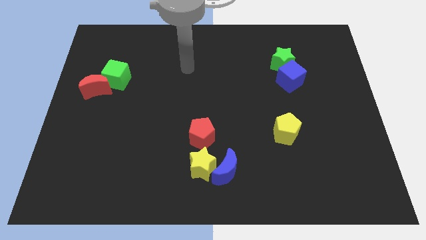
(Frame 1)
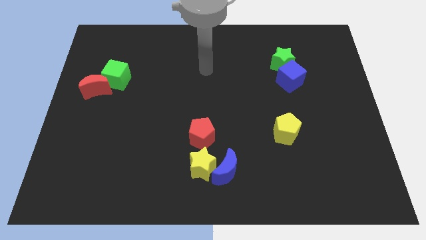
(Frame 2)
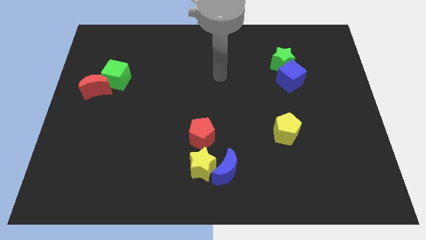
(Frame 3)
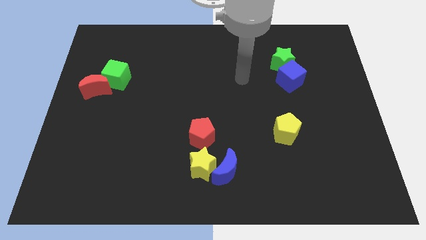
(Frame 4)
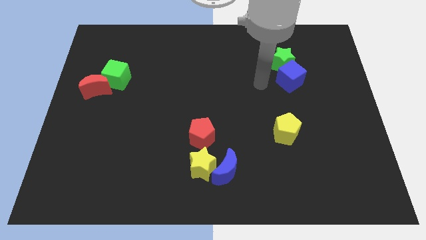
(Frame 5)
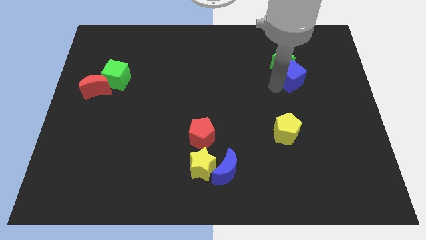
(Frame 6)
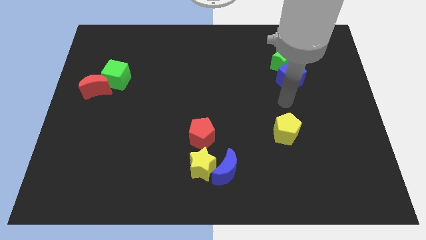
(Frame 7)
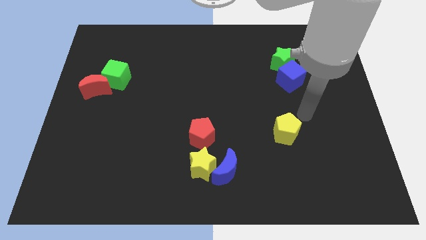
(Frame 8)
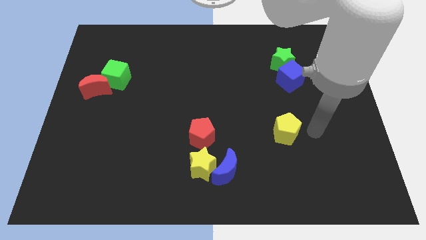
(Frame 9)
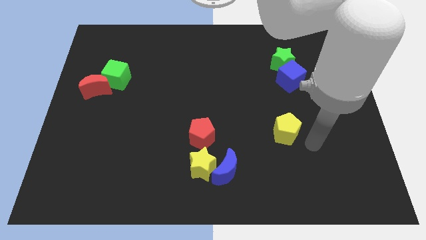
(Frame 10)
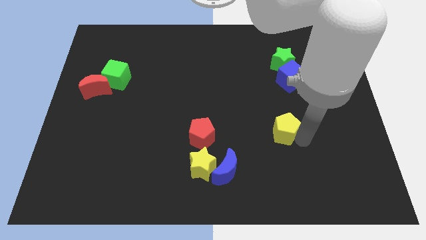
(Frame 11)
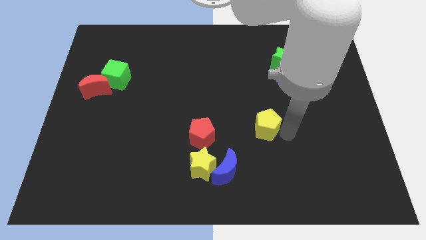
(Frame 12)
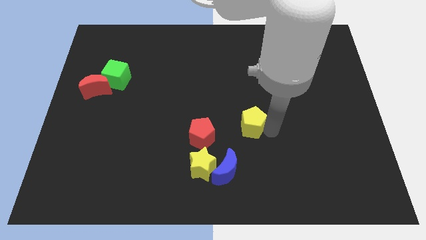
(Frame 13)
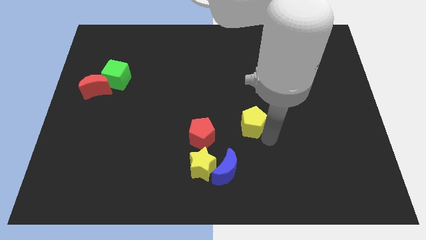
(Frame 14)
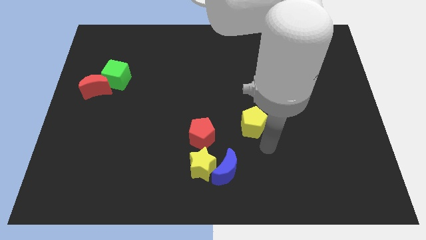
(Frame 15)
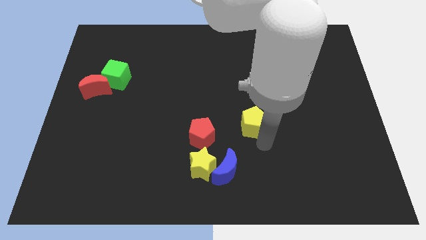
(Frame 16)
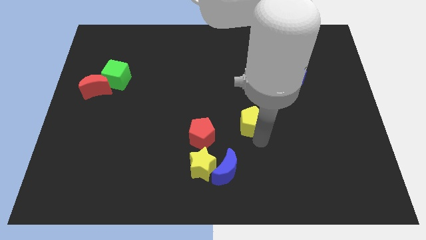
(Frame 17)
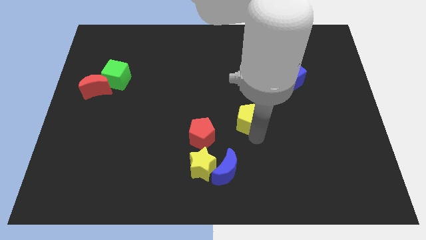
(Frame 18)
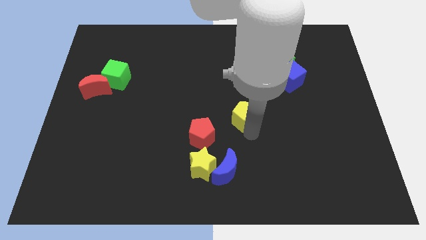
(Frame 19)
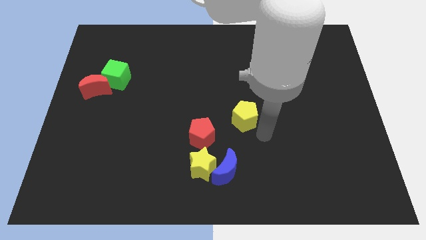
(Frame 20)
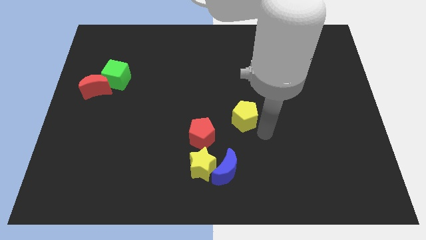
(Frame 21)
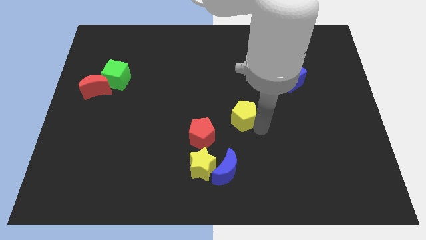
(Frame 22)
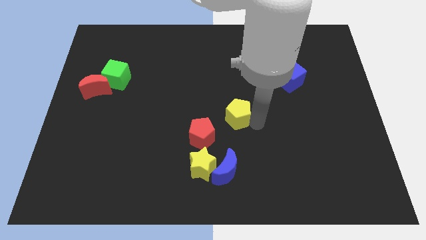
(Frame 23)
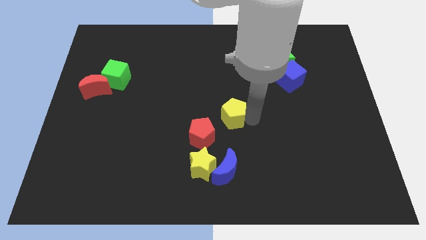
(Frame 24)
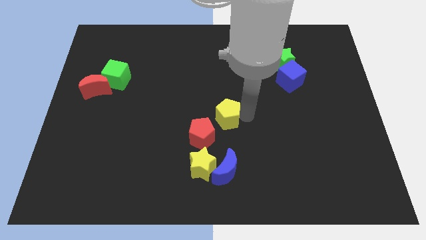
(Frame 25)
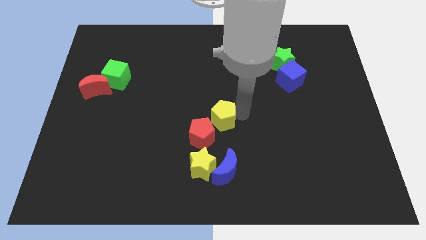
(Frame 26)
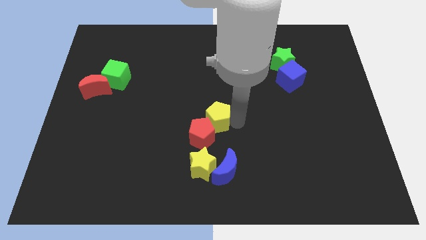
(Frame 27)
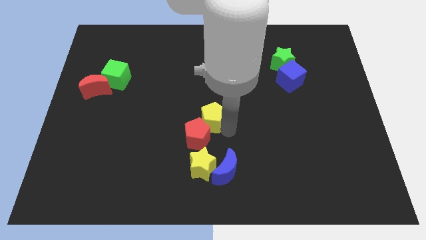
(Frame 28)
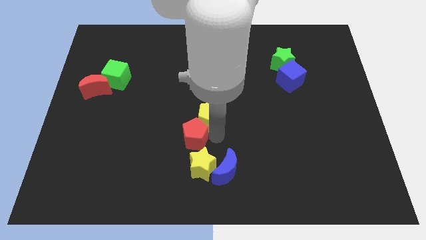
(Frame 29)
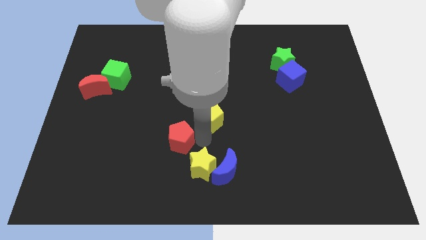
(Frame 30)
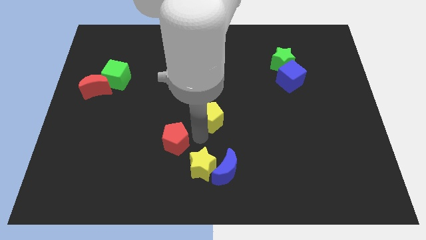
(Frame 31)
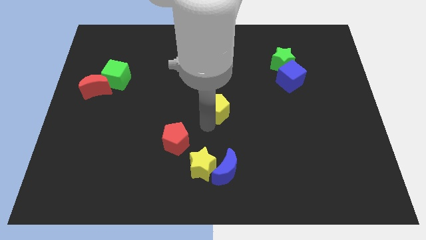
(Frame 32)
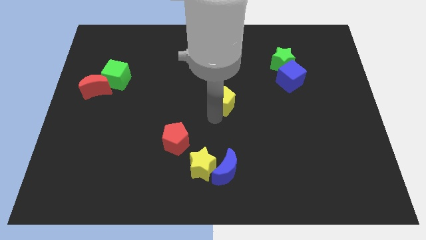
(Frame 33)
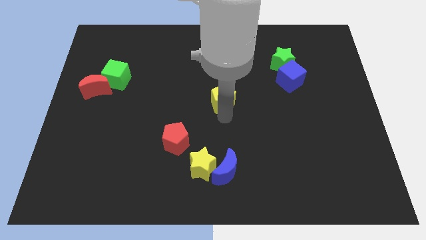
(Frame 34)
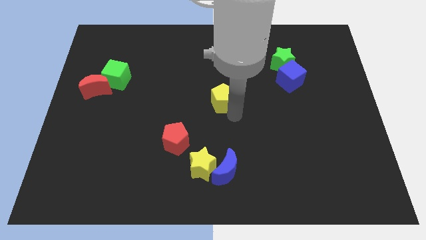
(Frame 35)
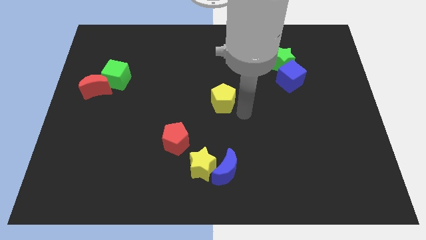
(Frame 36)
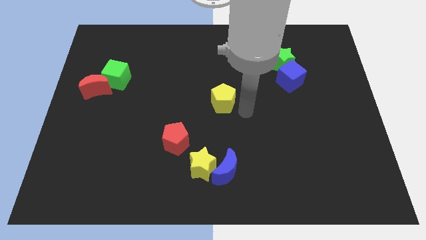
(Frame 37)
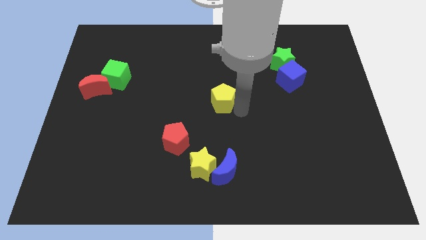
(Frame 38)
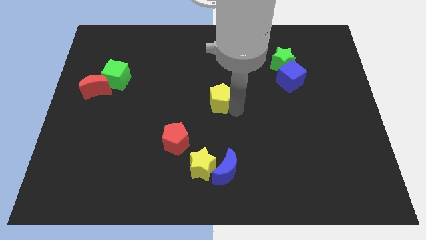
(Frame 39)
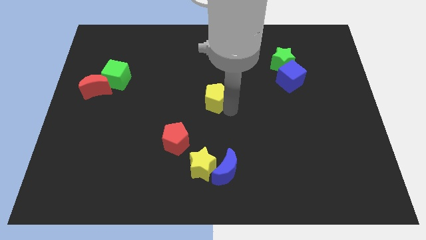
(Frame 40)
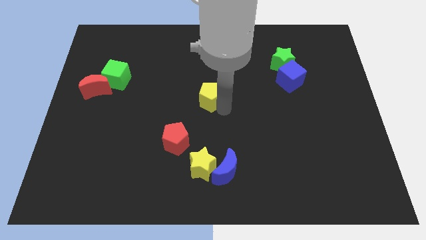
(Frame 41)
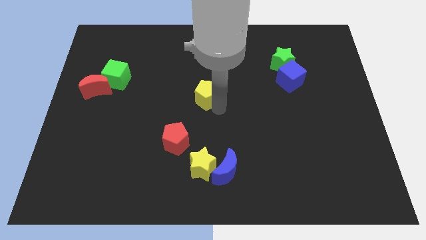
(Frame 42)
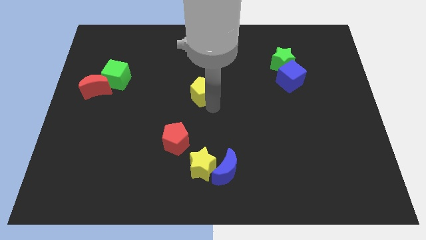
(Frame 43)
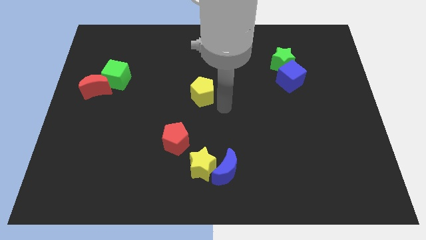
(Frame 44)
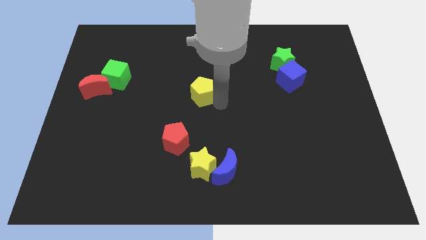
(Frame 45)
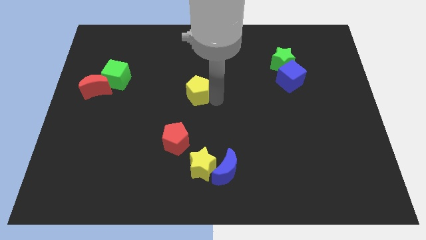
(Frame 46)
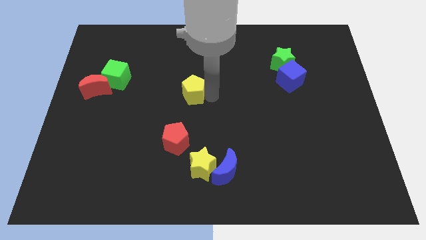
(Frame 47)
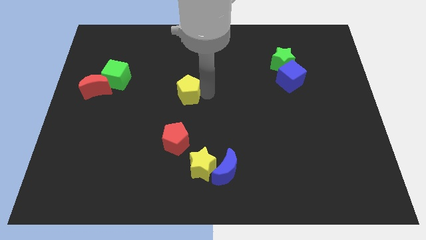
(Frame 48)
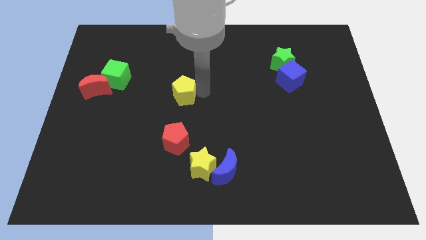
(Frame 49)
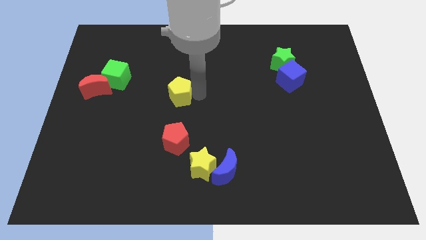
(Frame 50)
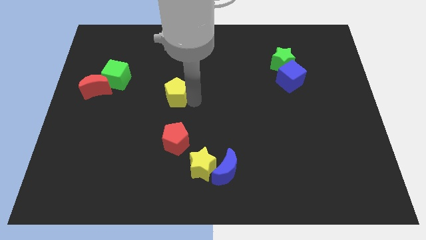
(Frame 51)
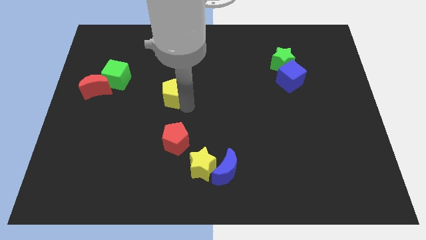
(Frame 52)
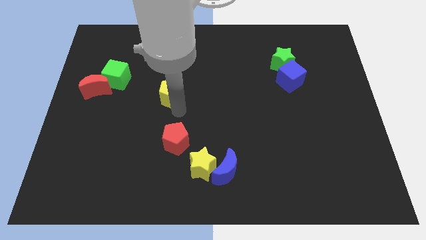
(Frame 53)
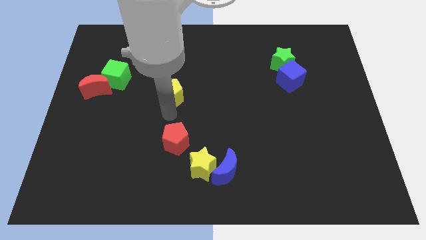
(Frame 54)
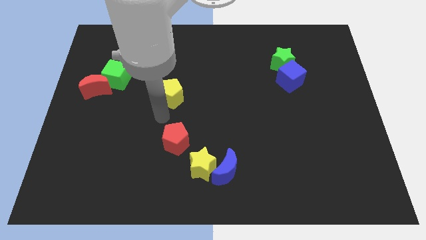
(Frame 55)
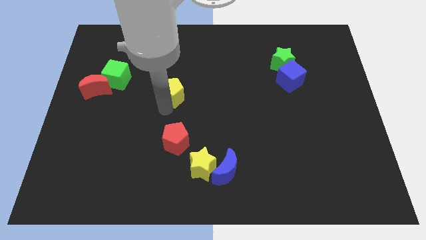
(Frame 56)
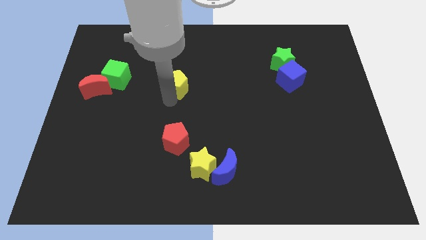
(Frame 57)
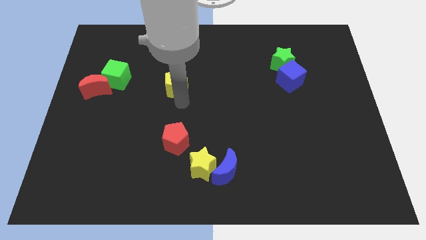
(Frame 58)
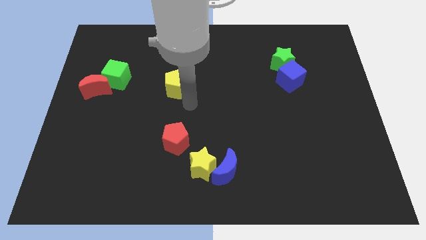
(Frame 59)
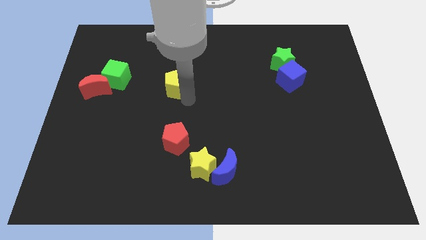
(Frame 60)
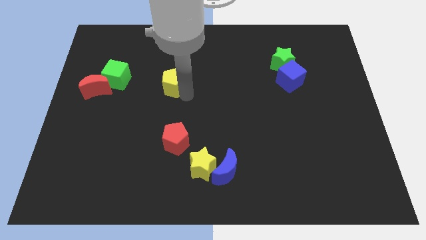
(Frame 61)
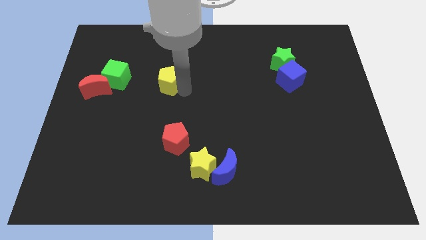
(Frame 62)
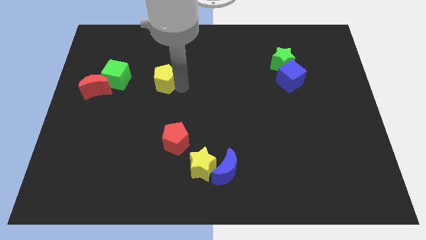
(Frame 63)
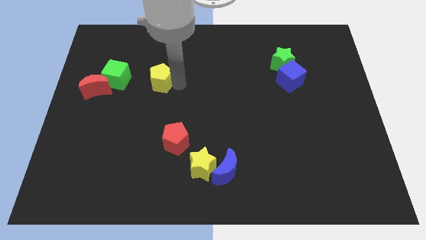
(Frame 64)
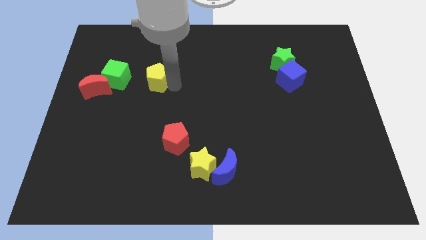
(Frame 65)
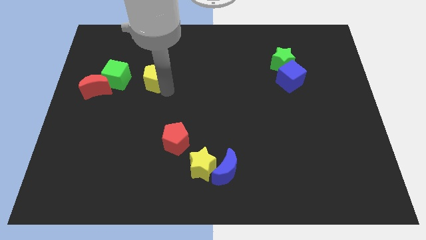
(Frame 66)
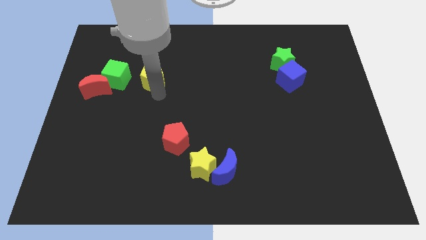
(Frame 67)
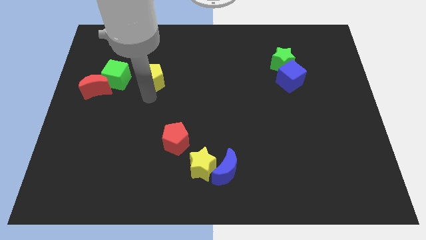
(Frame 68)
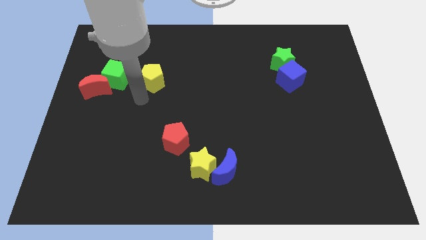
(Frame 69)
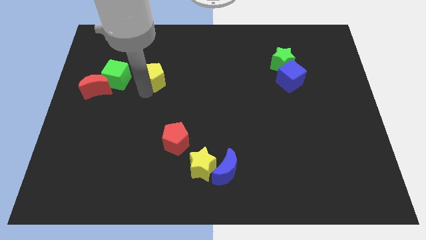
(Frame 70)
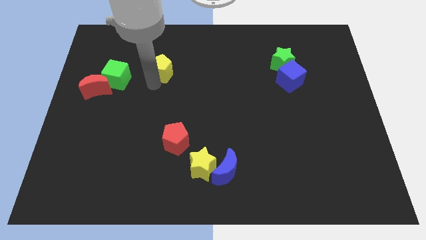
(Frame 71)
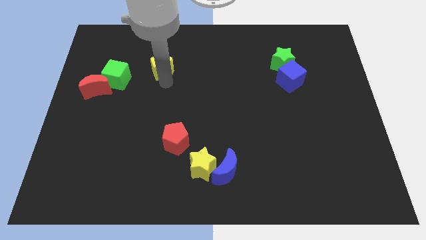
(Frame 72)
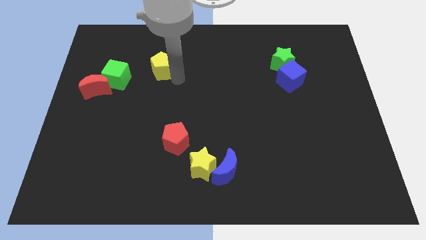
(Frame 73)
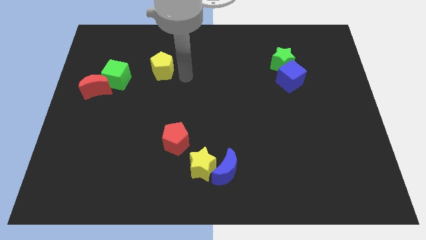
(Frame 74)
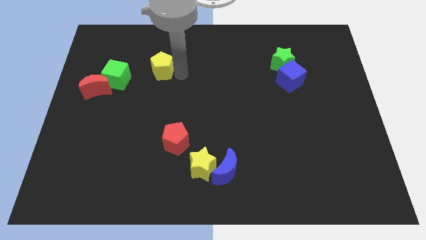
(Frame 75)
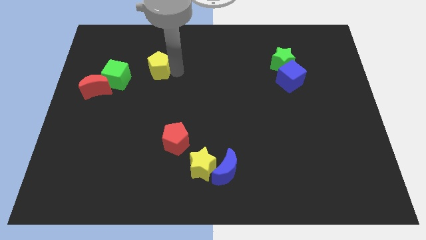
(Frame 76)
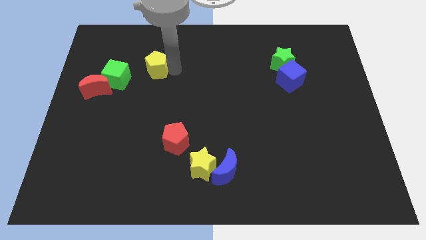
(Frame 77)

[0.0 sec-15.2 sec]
push the yellow pentagon diagonally up and to the right of the green cube
